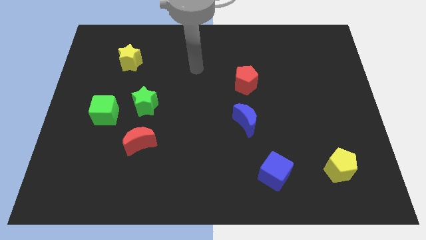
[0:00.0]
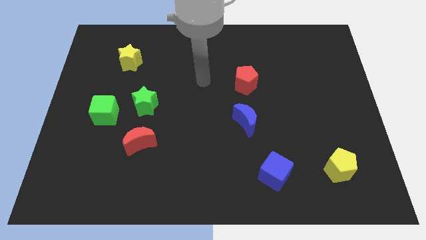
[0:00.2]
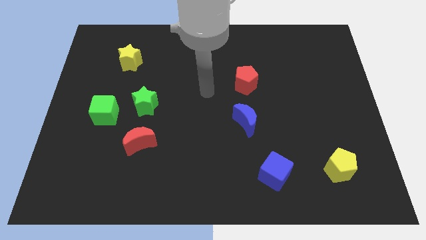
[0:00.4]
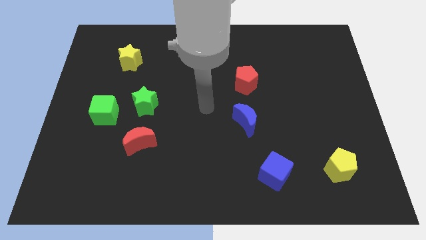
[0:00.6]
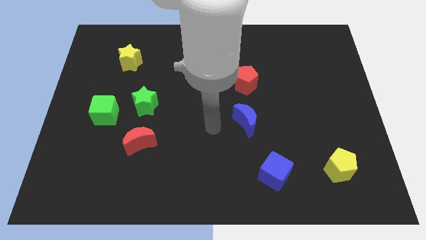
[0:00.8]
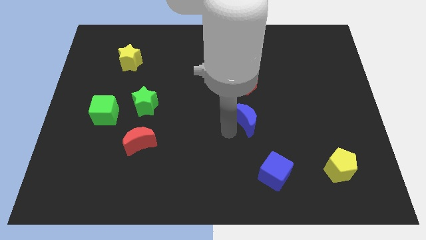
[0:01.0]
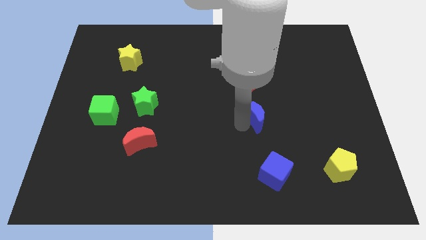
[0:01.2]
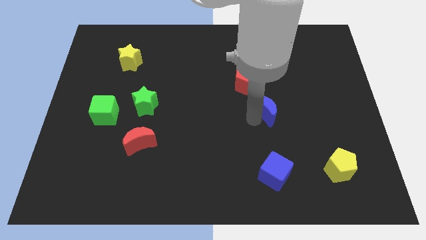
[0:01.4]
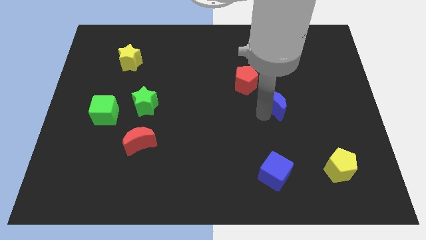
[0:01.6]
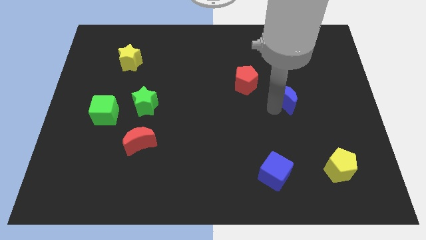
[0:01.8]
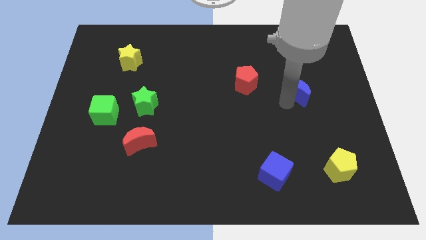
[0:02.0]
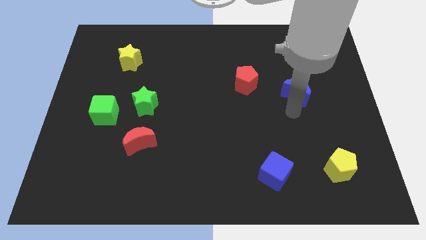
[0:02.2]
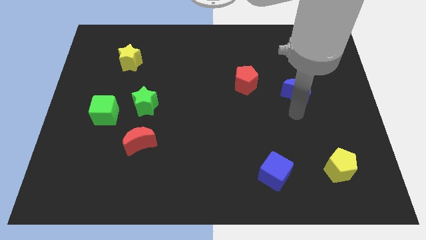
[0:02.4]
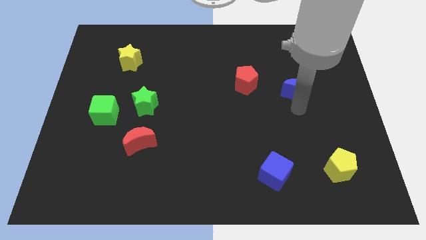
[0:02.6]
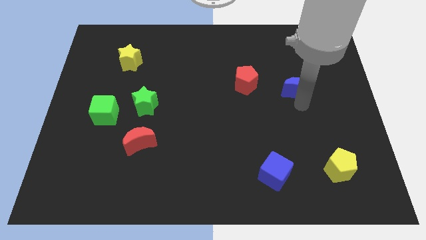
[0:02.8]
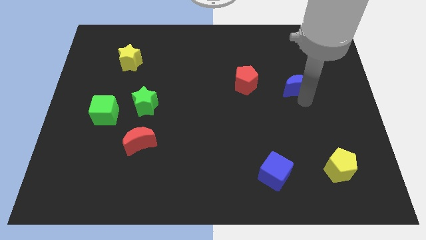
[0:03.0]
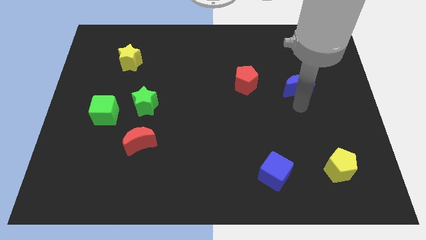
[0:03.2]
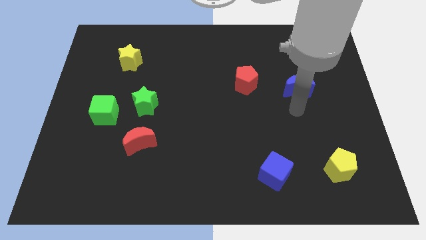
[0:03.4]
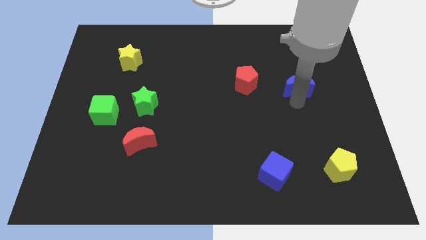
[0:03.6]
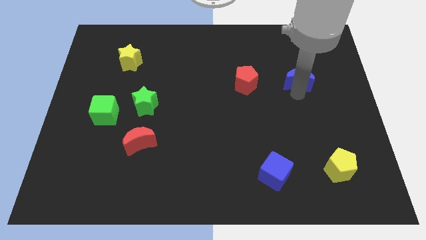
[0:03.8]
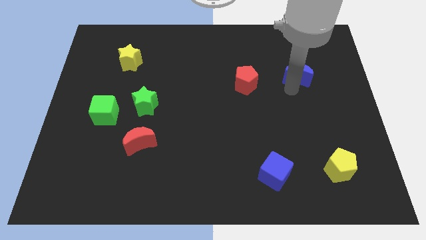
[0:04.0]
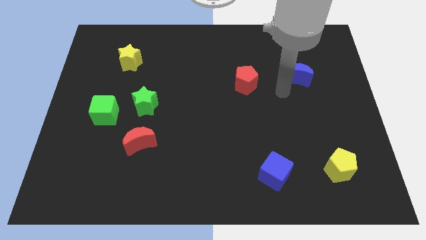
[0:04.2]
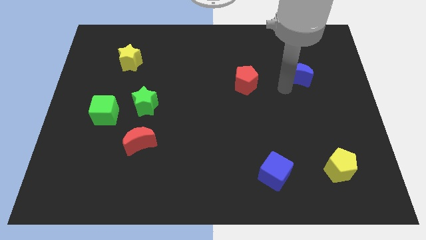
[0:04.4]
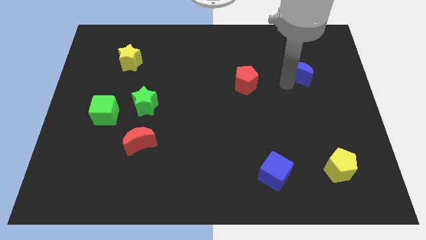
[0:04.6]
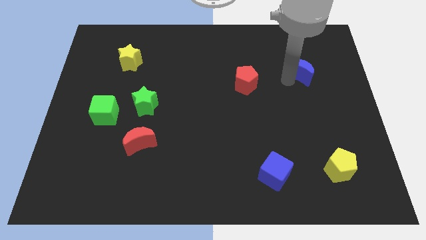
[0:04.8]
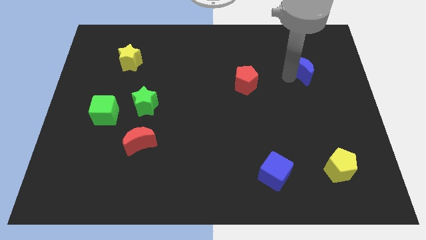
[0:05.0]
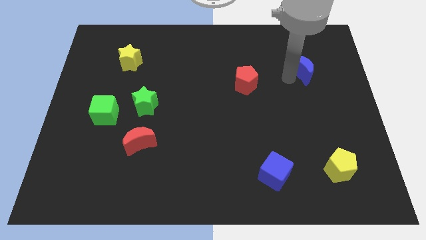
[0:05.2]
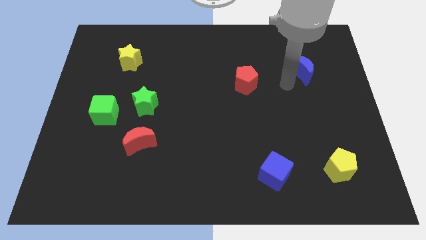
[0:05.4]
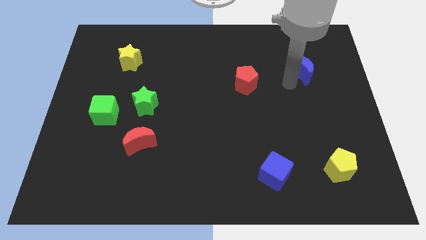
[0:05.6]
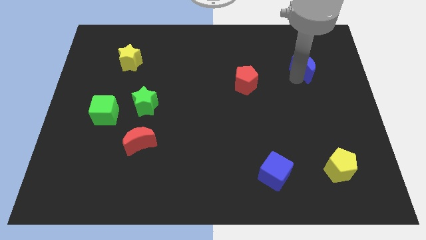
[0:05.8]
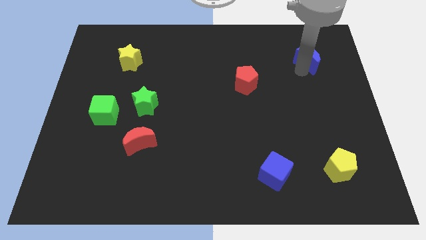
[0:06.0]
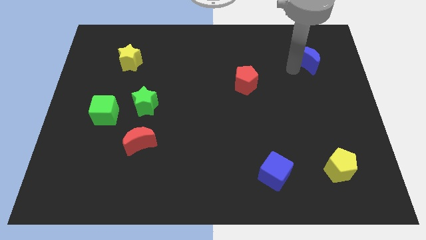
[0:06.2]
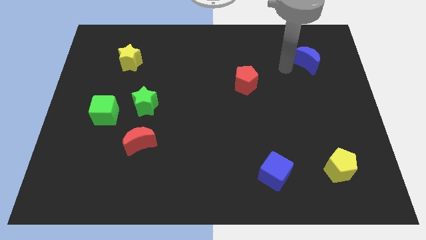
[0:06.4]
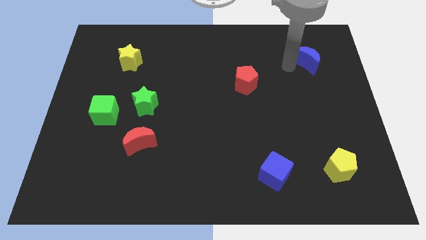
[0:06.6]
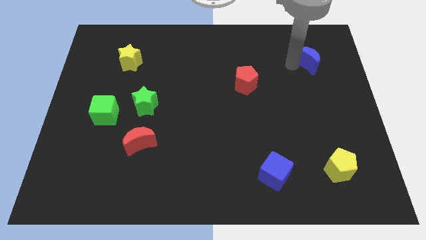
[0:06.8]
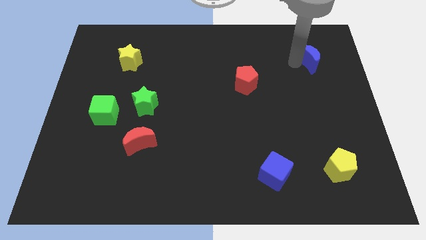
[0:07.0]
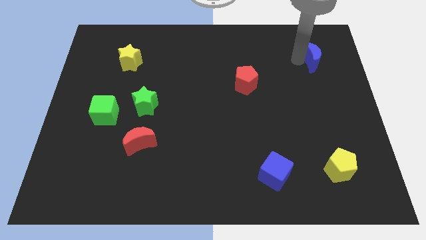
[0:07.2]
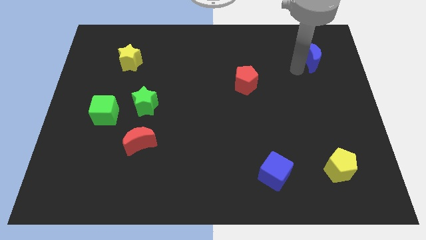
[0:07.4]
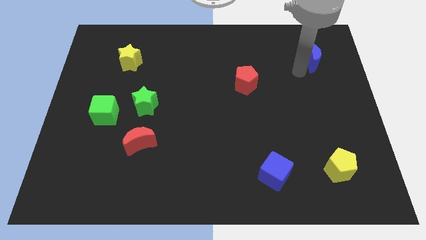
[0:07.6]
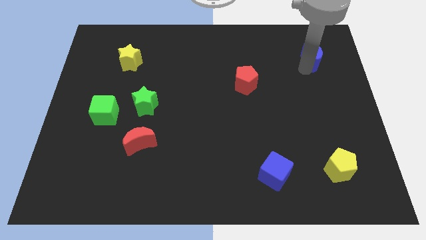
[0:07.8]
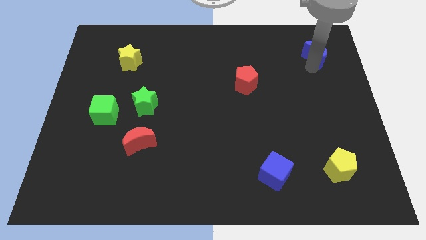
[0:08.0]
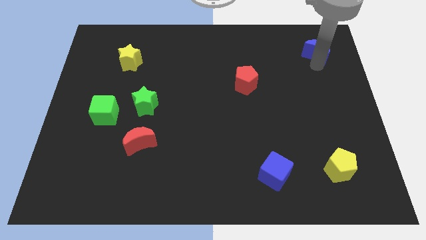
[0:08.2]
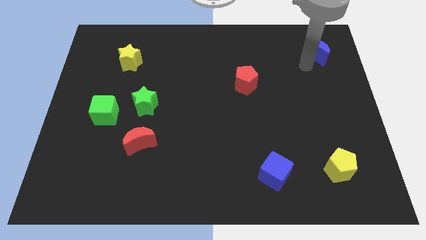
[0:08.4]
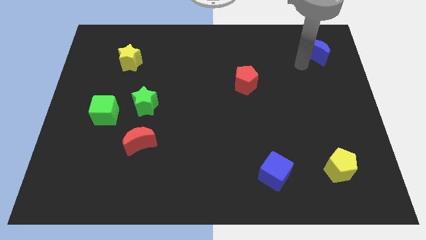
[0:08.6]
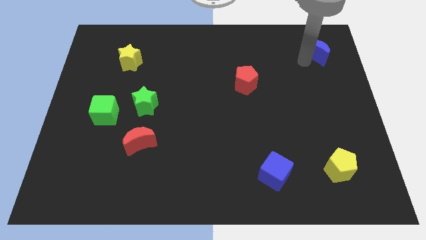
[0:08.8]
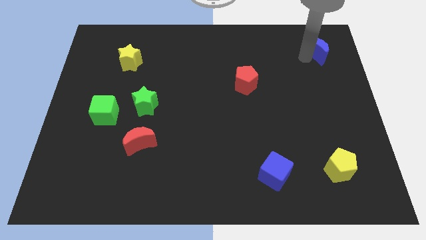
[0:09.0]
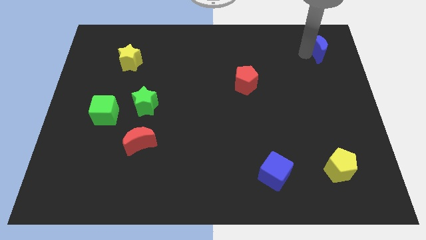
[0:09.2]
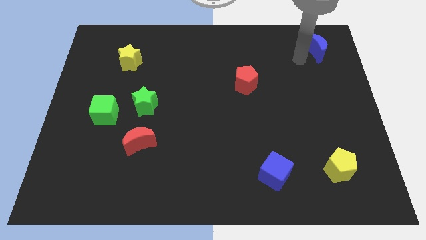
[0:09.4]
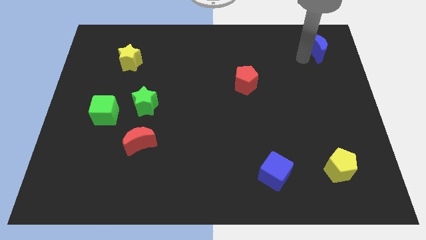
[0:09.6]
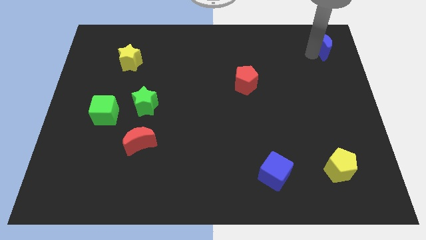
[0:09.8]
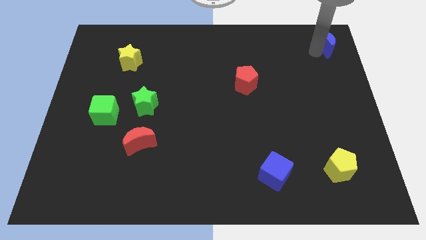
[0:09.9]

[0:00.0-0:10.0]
put the blue moon to the upper right corner

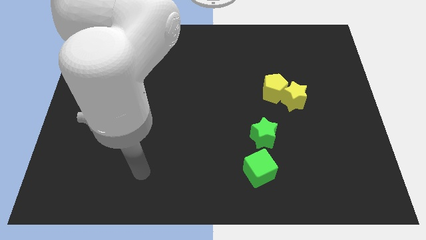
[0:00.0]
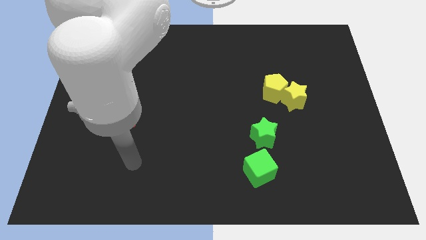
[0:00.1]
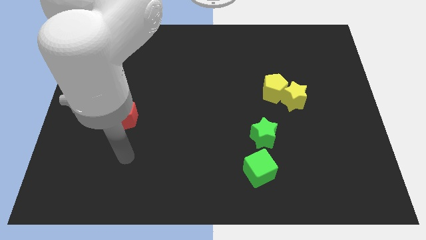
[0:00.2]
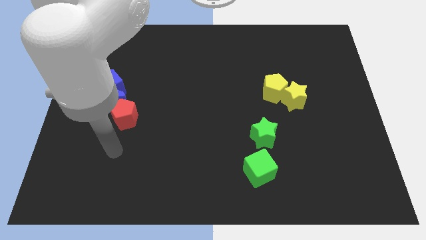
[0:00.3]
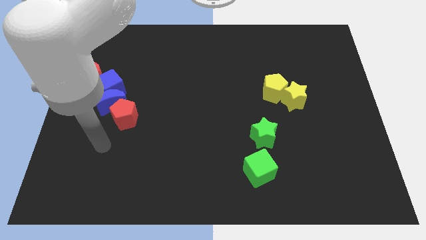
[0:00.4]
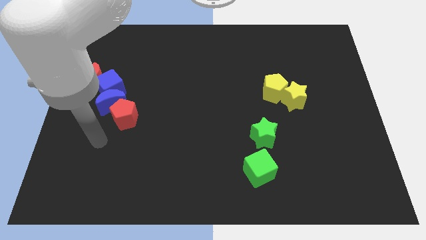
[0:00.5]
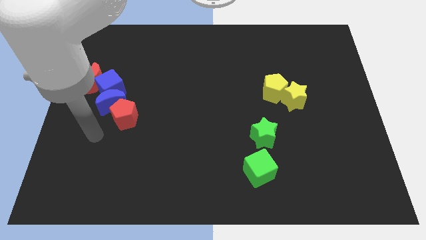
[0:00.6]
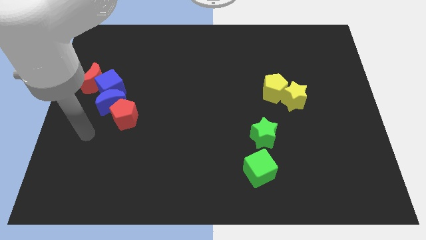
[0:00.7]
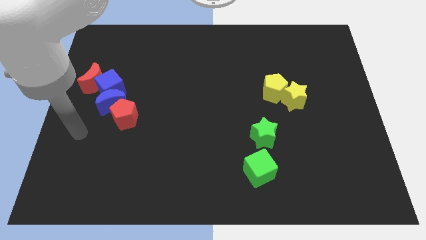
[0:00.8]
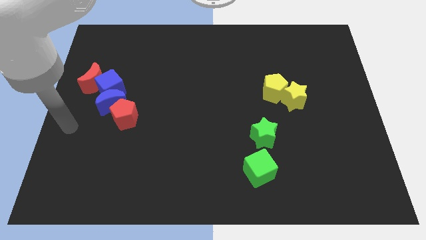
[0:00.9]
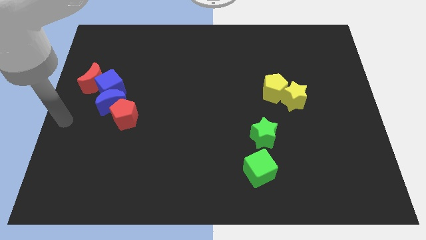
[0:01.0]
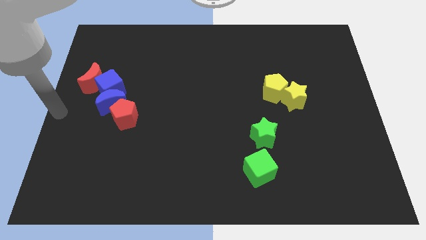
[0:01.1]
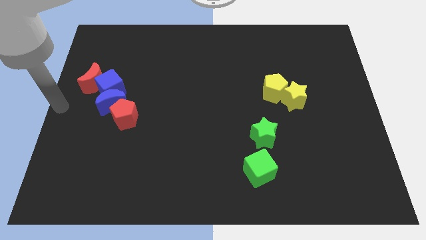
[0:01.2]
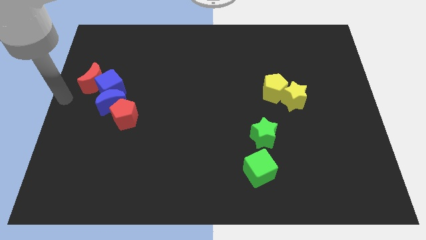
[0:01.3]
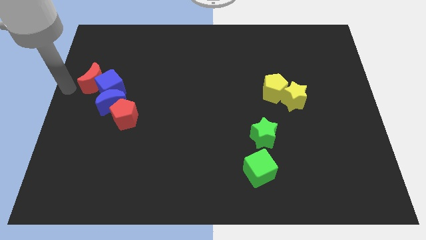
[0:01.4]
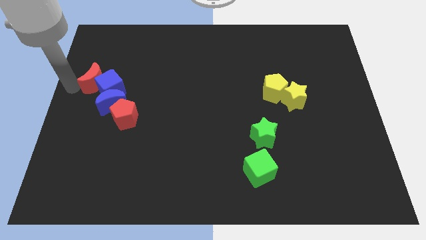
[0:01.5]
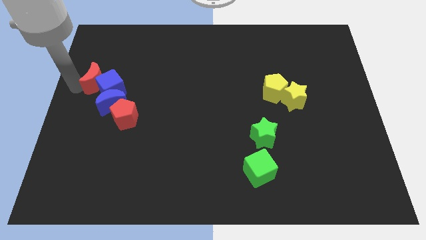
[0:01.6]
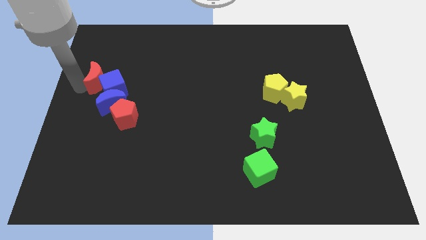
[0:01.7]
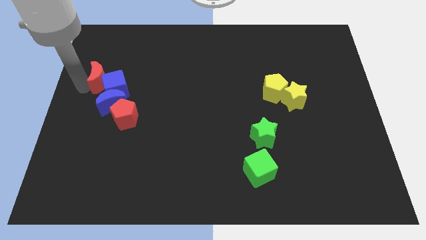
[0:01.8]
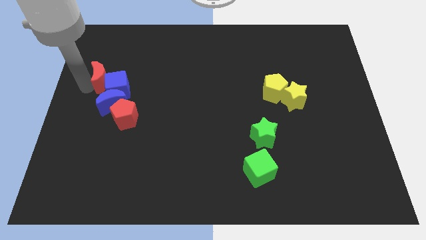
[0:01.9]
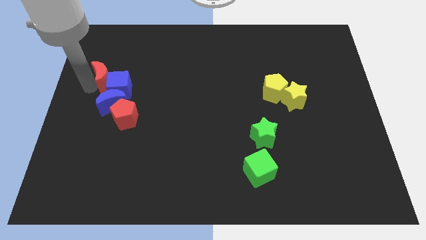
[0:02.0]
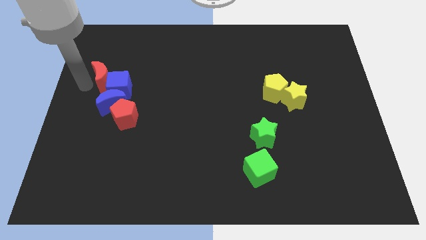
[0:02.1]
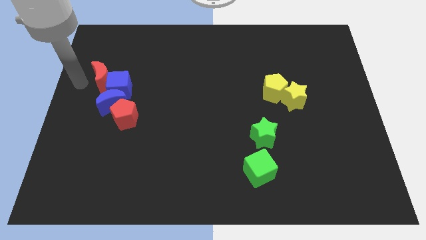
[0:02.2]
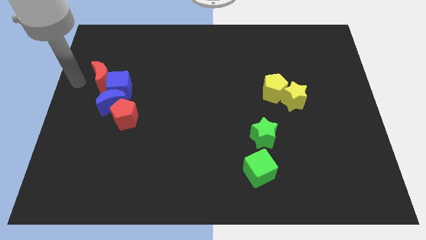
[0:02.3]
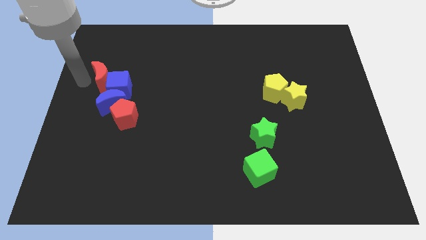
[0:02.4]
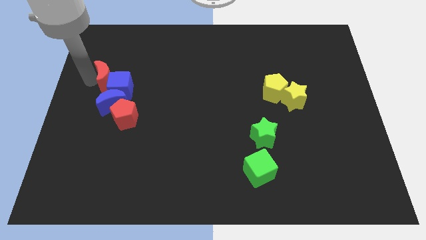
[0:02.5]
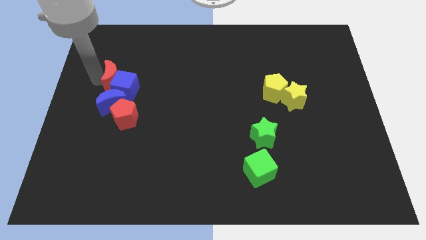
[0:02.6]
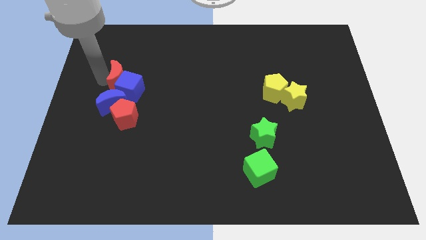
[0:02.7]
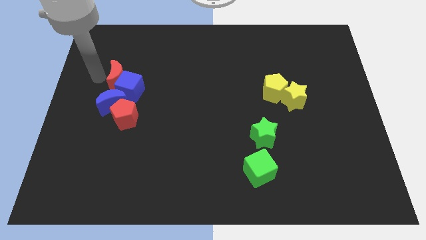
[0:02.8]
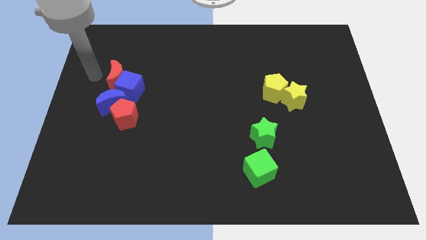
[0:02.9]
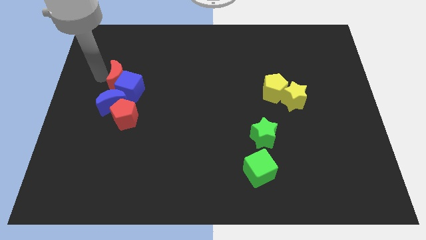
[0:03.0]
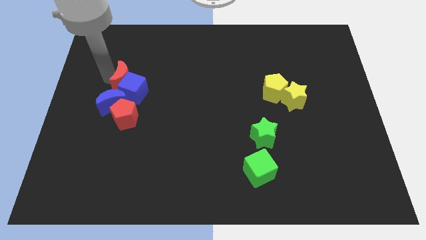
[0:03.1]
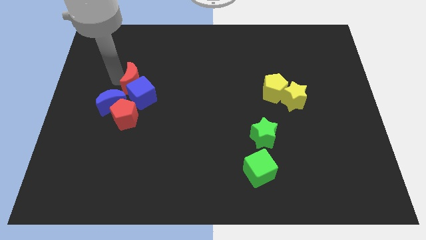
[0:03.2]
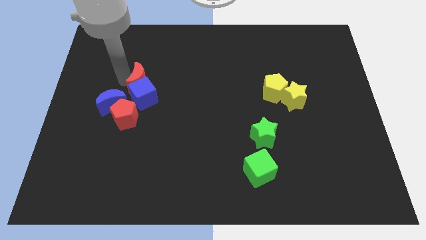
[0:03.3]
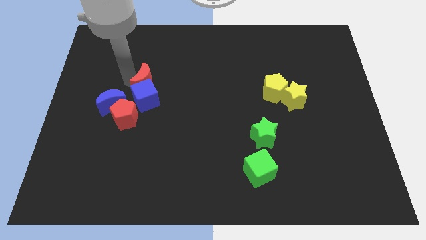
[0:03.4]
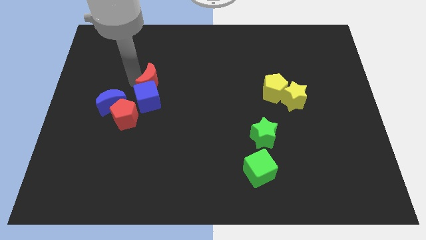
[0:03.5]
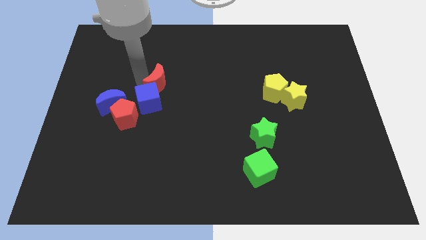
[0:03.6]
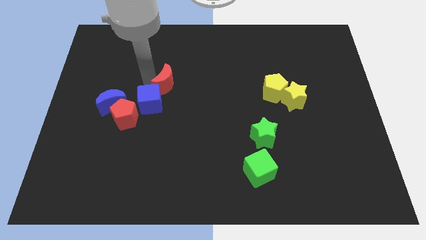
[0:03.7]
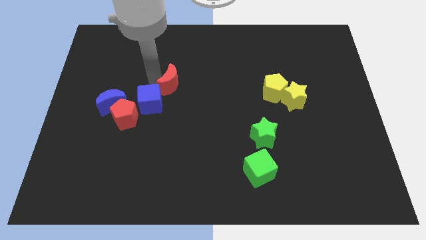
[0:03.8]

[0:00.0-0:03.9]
push the red moon to the middle
